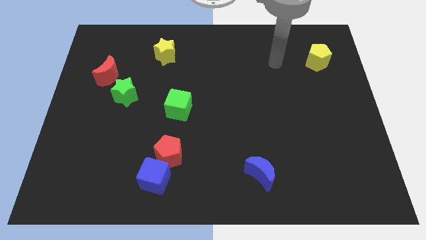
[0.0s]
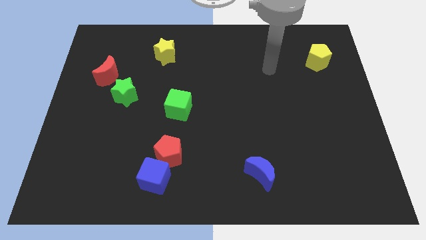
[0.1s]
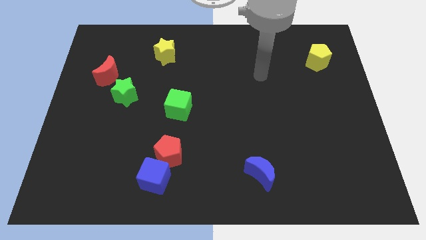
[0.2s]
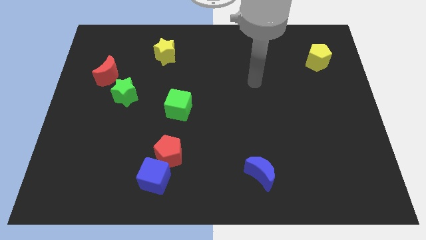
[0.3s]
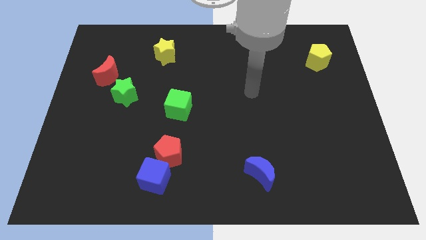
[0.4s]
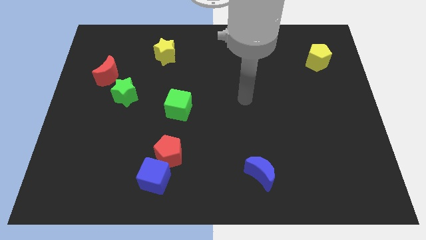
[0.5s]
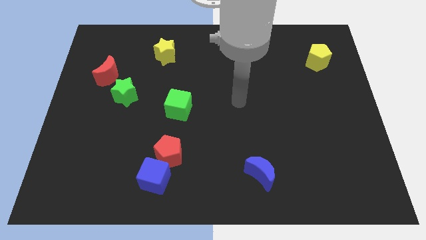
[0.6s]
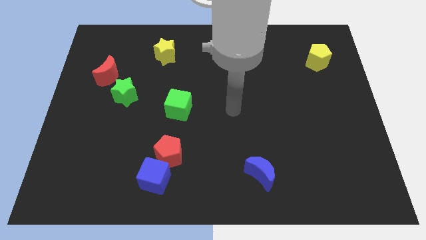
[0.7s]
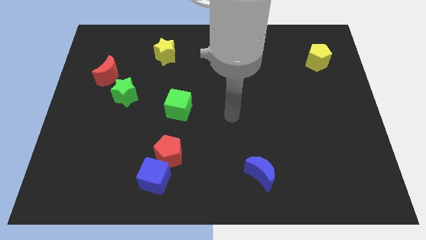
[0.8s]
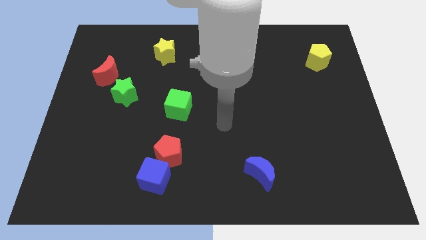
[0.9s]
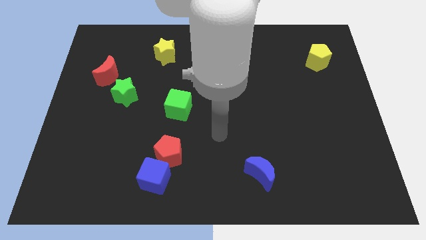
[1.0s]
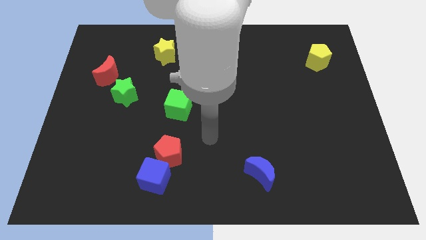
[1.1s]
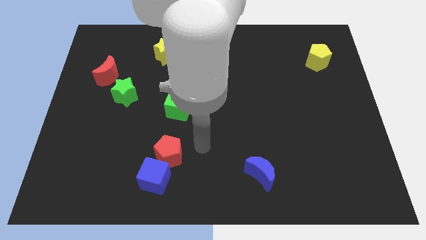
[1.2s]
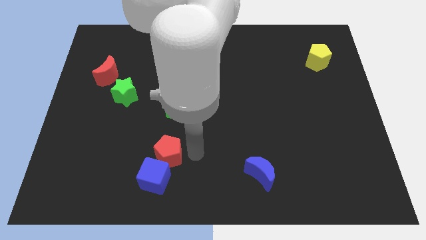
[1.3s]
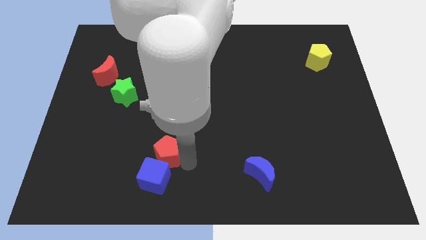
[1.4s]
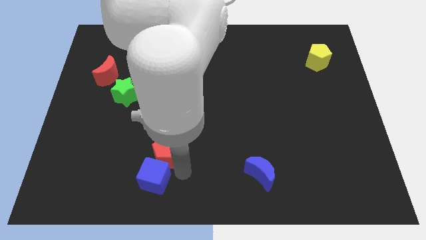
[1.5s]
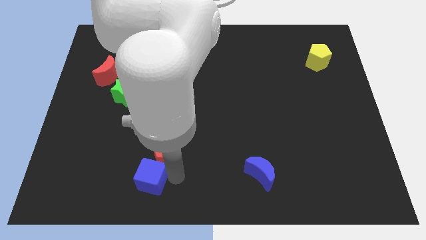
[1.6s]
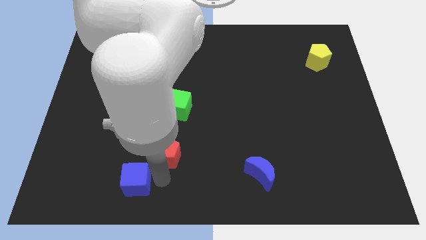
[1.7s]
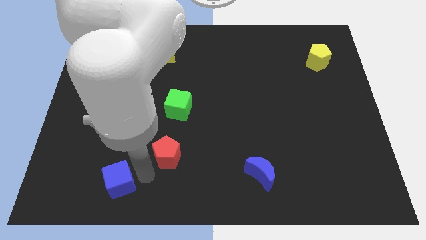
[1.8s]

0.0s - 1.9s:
move the red pentagon away from the blue cube

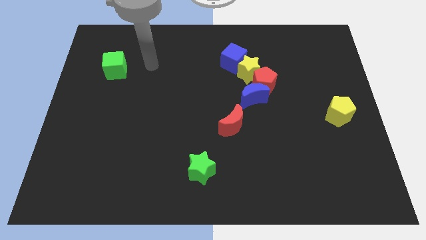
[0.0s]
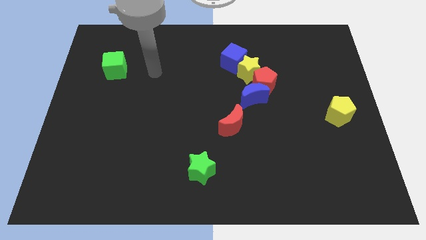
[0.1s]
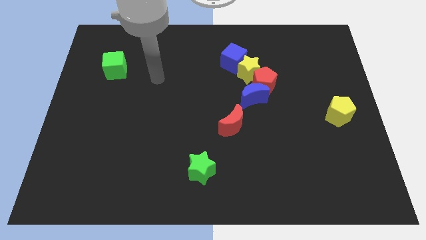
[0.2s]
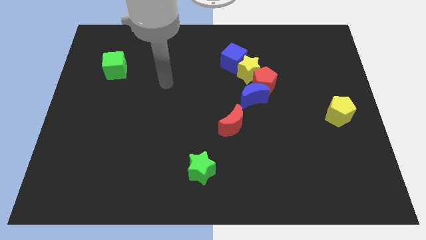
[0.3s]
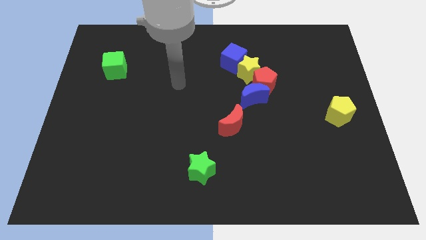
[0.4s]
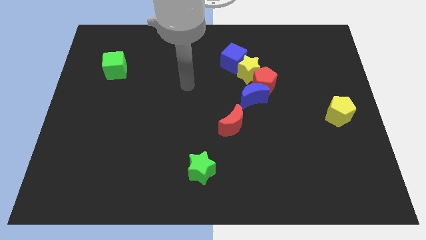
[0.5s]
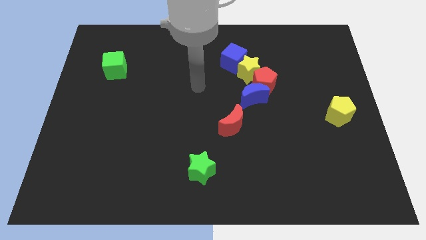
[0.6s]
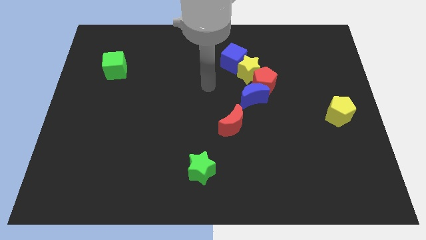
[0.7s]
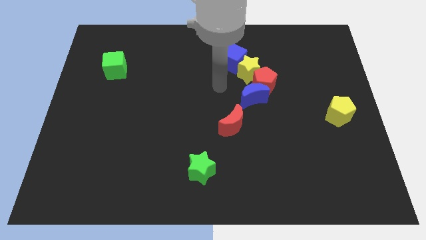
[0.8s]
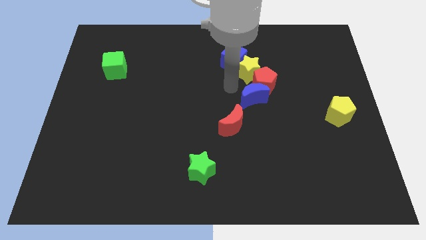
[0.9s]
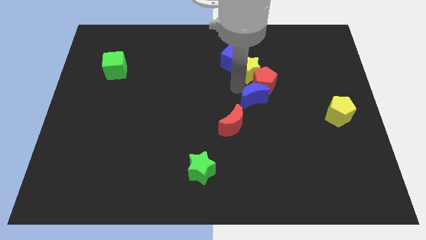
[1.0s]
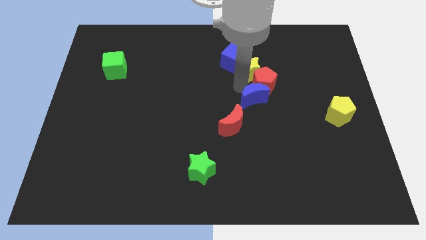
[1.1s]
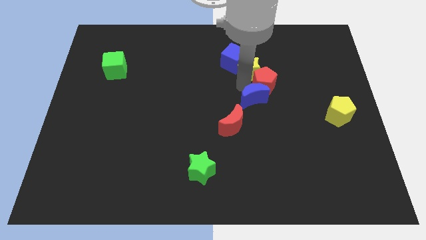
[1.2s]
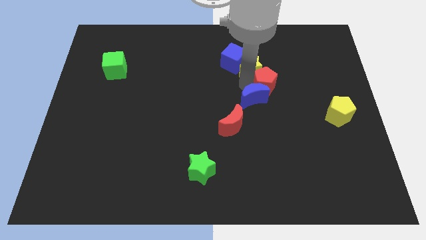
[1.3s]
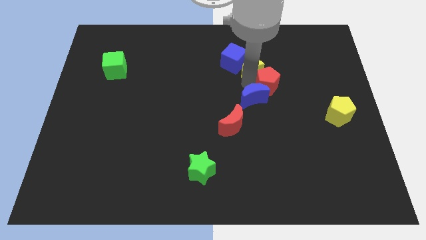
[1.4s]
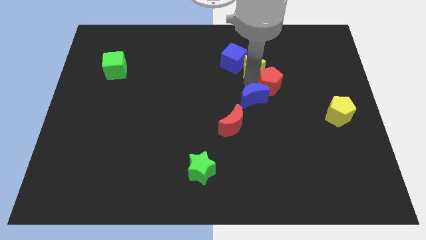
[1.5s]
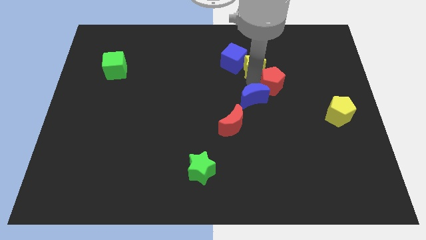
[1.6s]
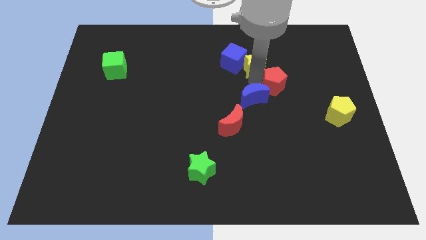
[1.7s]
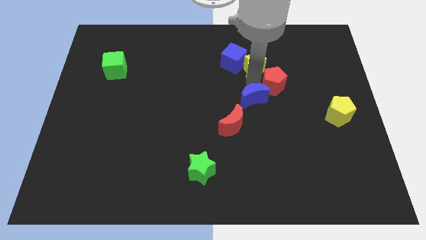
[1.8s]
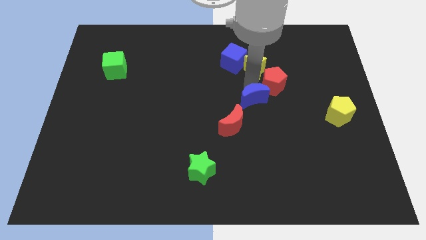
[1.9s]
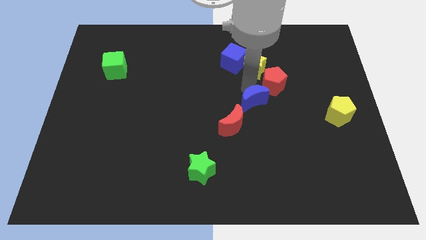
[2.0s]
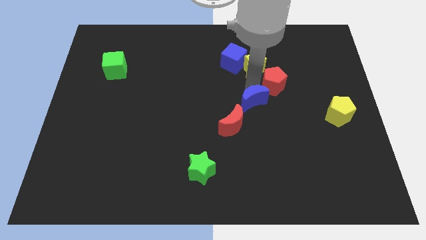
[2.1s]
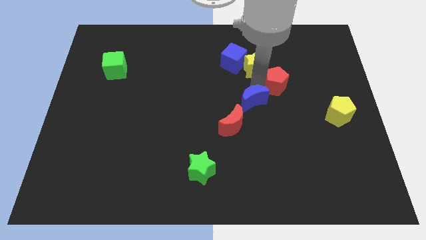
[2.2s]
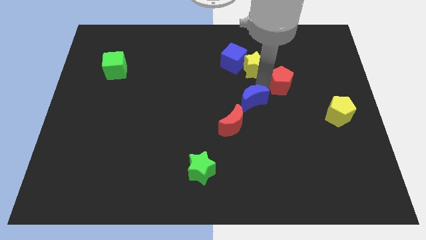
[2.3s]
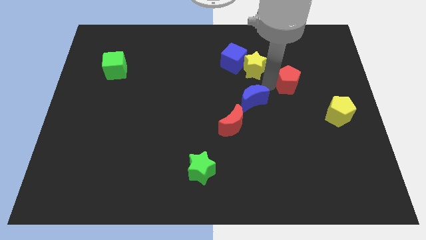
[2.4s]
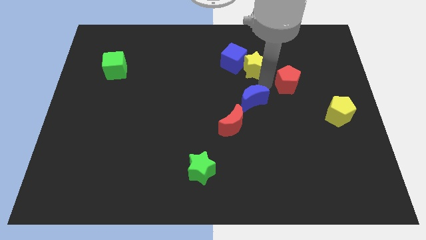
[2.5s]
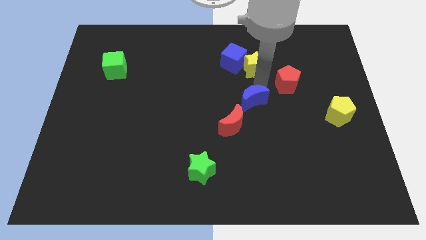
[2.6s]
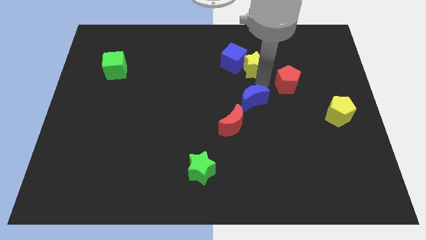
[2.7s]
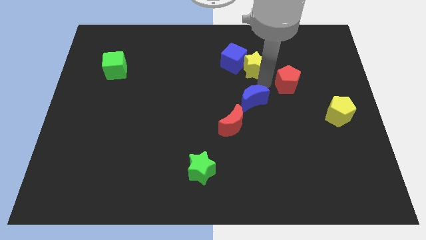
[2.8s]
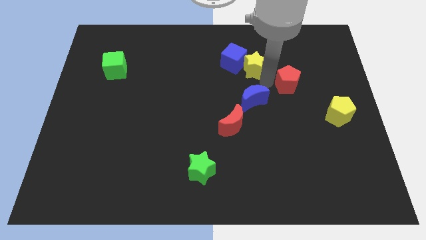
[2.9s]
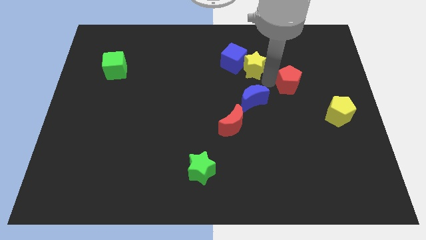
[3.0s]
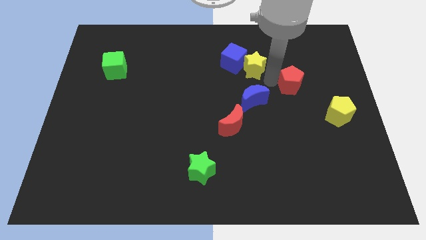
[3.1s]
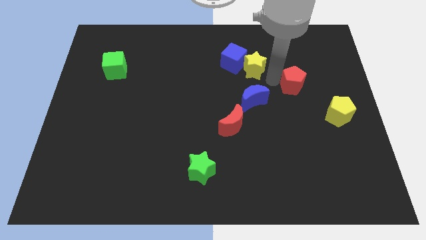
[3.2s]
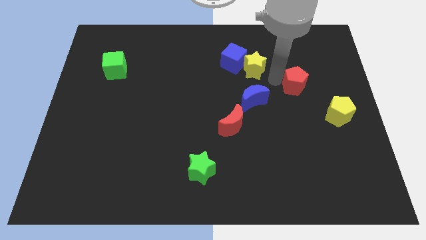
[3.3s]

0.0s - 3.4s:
separate the red pentagon from the yellow star and blue moon

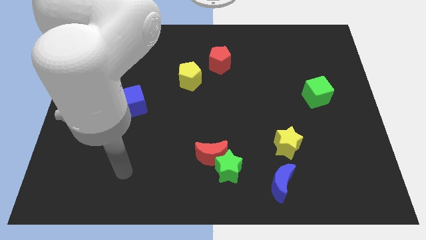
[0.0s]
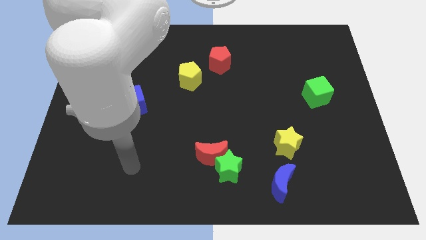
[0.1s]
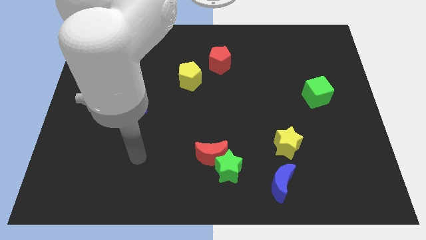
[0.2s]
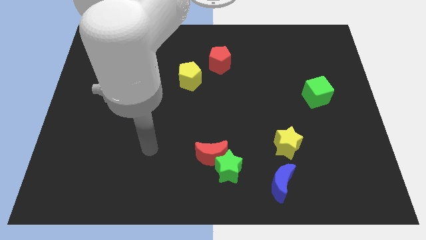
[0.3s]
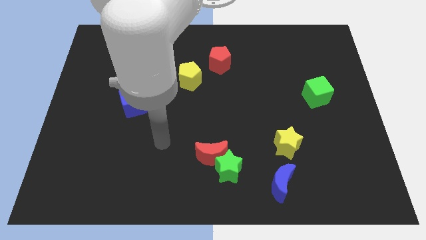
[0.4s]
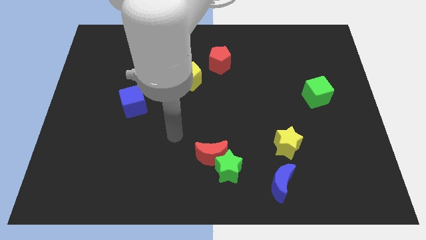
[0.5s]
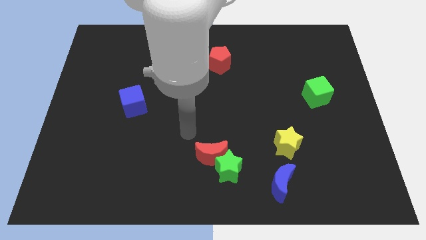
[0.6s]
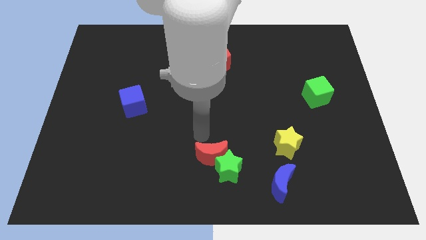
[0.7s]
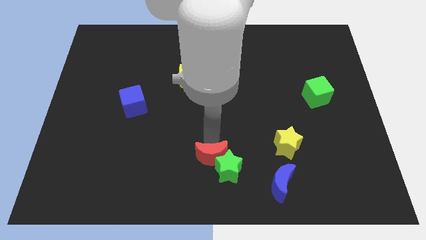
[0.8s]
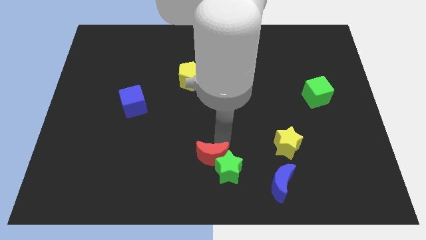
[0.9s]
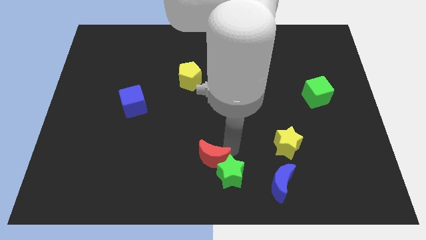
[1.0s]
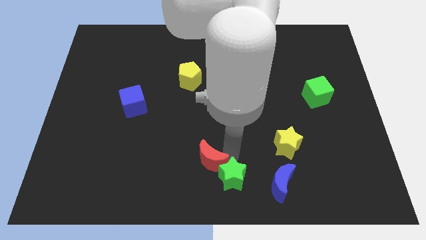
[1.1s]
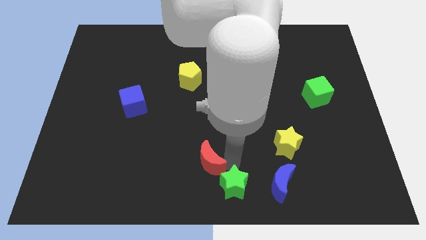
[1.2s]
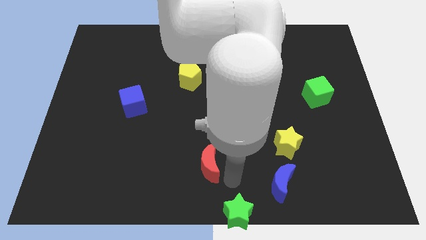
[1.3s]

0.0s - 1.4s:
move the red moon away from the green star

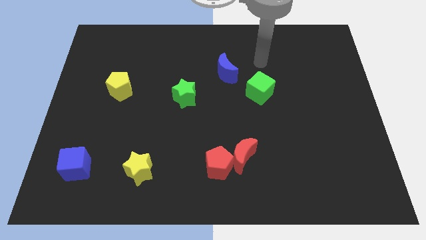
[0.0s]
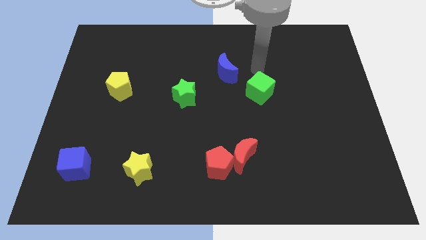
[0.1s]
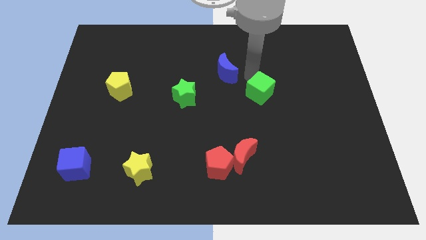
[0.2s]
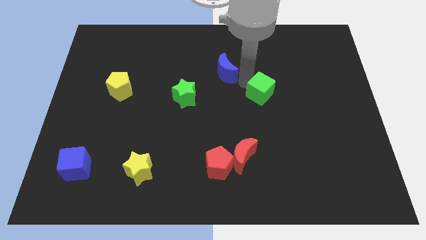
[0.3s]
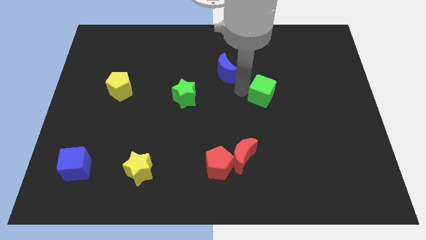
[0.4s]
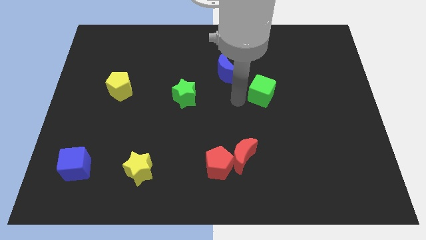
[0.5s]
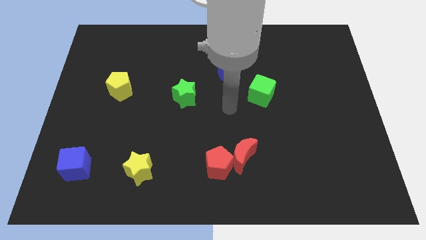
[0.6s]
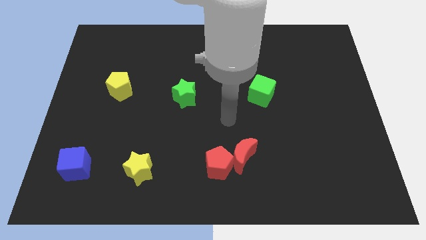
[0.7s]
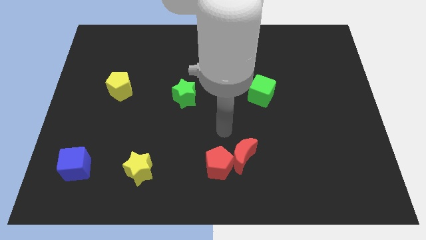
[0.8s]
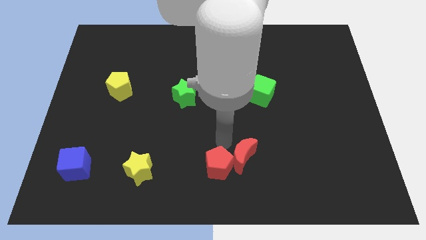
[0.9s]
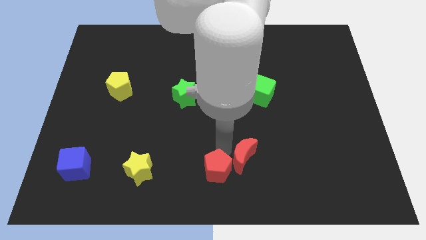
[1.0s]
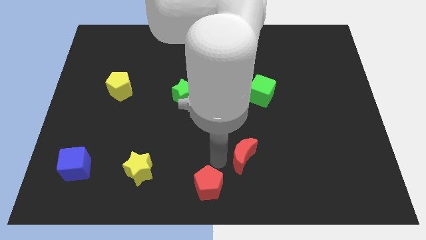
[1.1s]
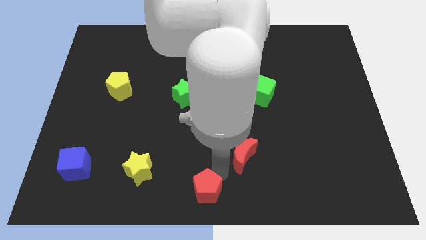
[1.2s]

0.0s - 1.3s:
move the red moon away from the red pentagon

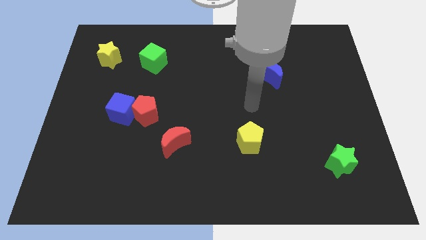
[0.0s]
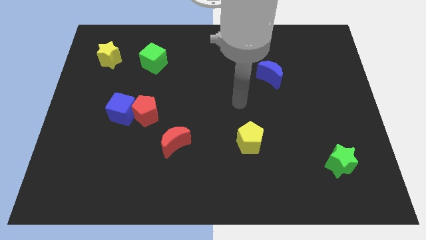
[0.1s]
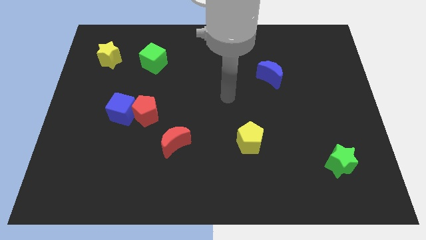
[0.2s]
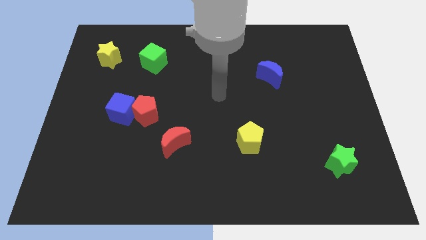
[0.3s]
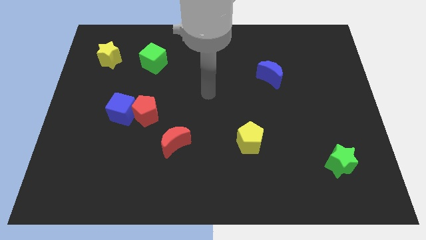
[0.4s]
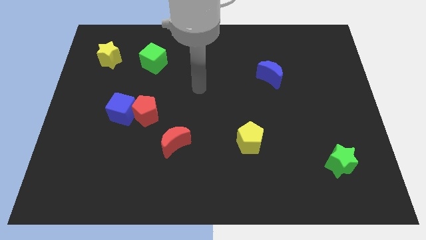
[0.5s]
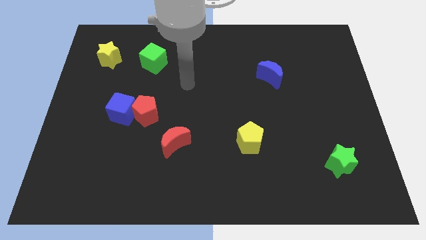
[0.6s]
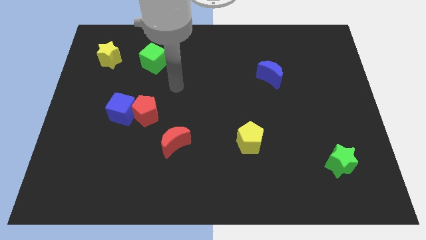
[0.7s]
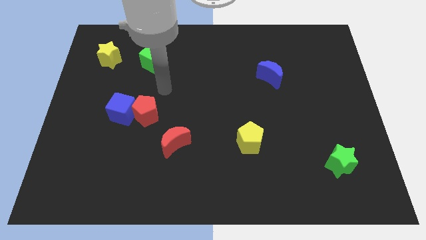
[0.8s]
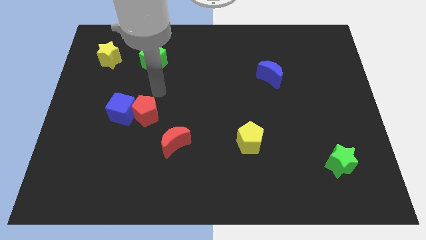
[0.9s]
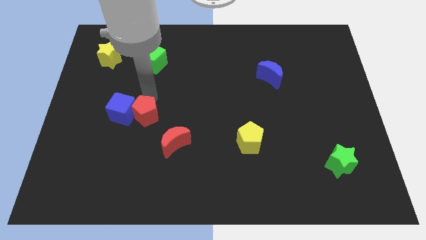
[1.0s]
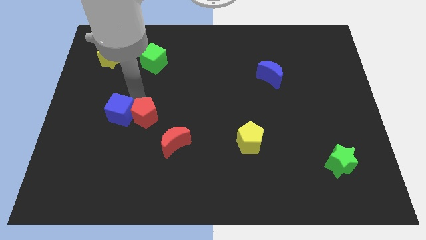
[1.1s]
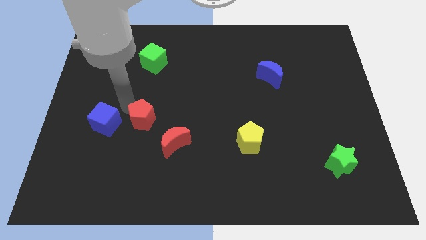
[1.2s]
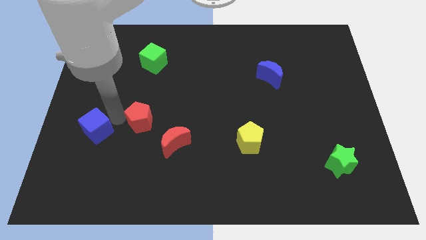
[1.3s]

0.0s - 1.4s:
pull the red pentagon apart from the blue cube
